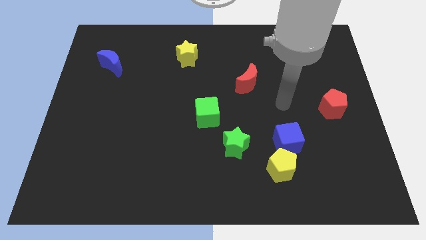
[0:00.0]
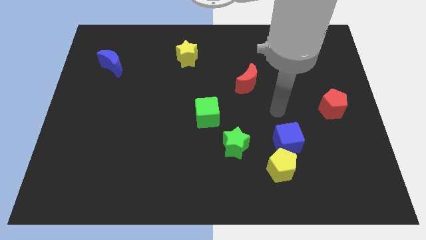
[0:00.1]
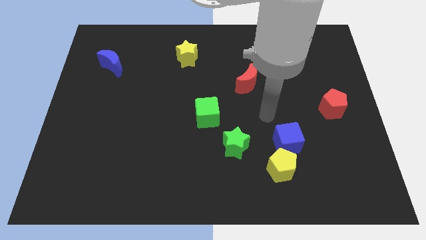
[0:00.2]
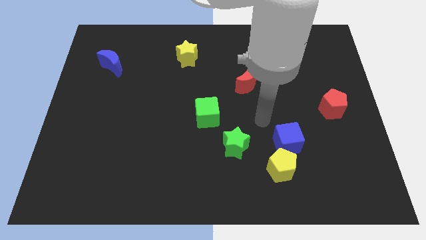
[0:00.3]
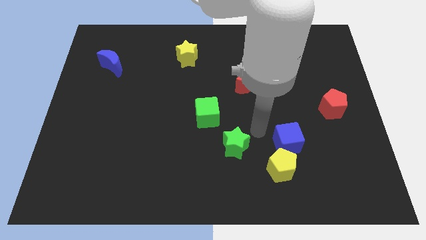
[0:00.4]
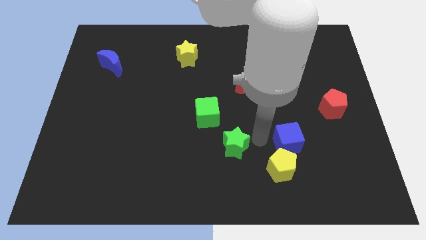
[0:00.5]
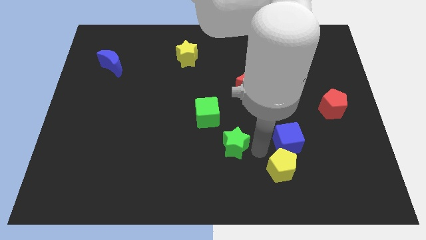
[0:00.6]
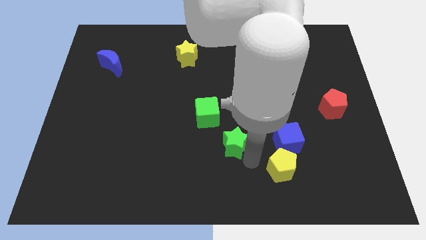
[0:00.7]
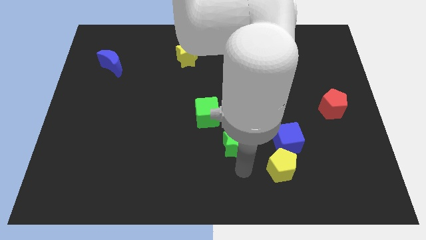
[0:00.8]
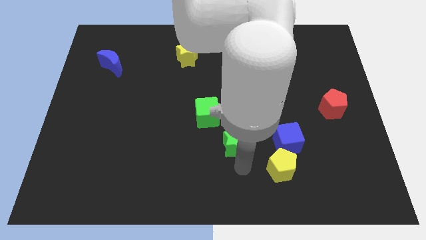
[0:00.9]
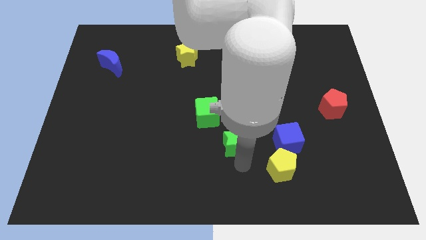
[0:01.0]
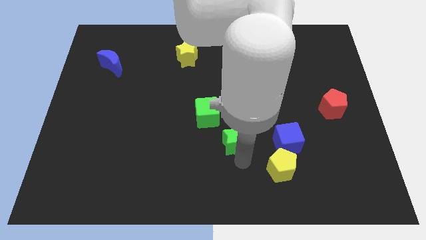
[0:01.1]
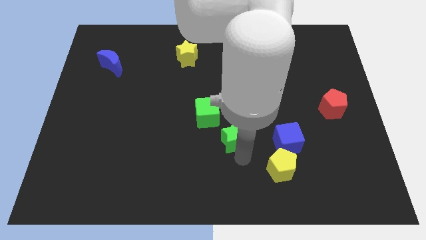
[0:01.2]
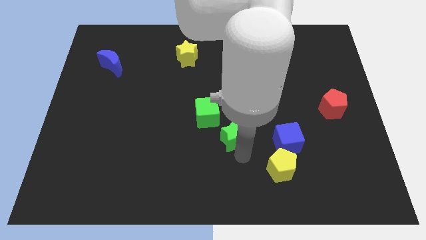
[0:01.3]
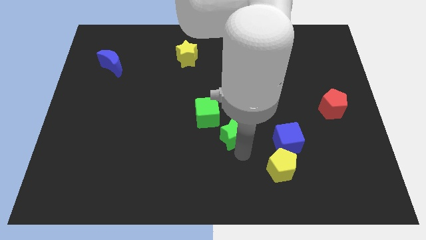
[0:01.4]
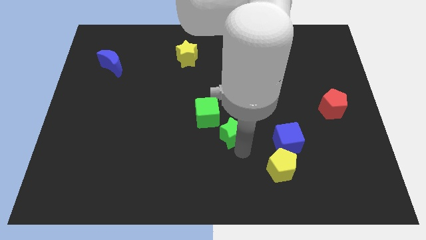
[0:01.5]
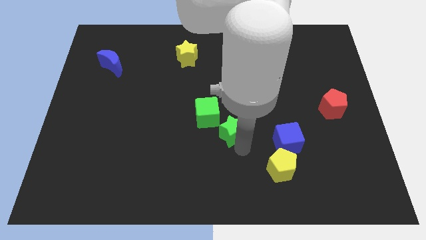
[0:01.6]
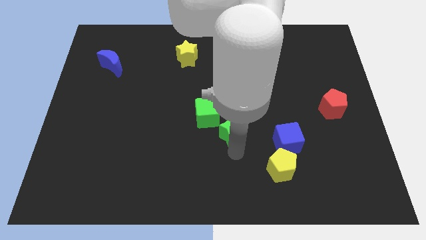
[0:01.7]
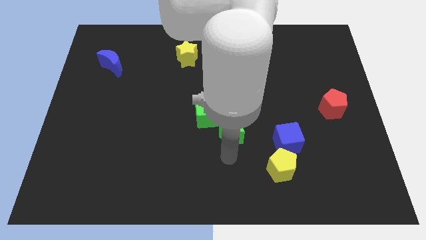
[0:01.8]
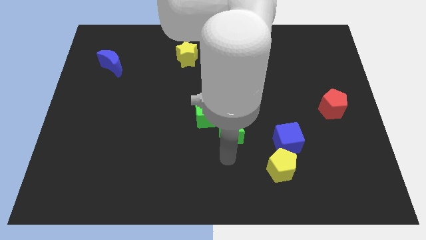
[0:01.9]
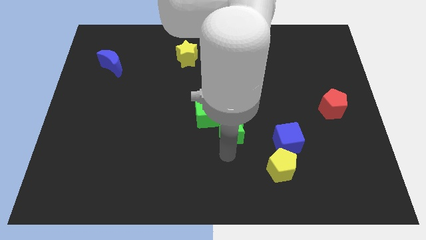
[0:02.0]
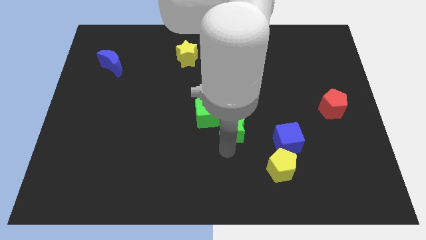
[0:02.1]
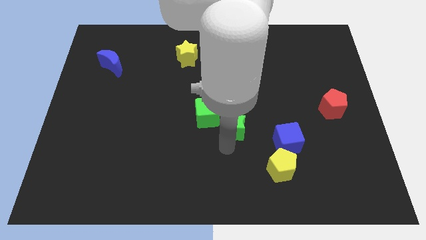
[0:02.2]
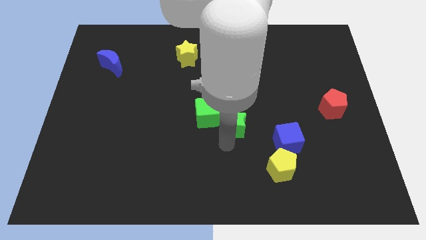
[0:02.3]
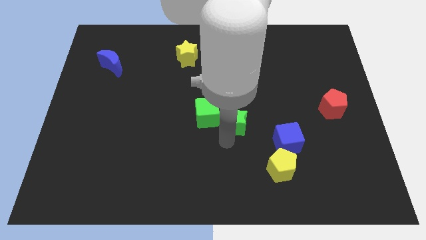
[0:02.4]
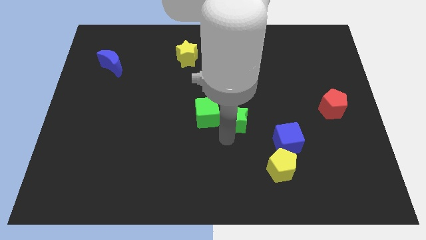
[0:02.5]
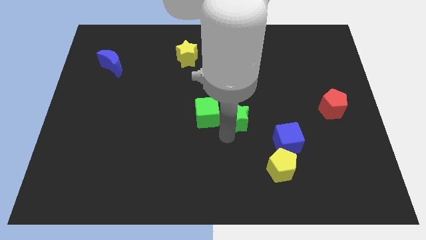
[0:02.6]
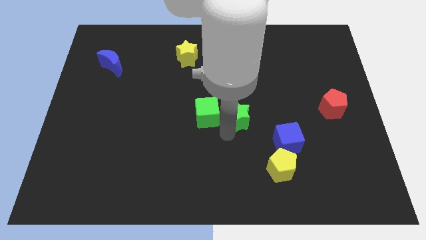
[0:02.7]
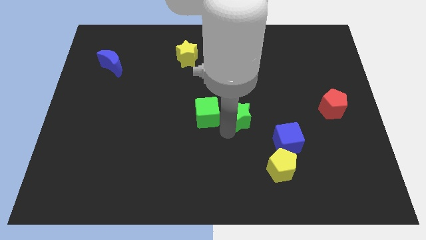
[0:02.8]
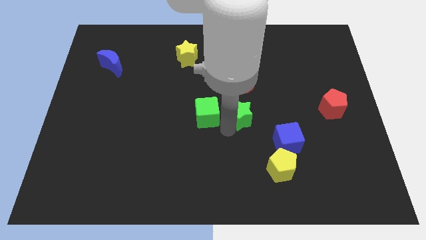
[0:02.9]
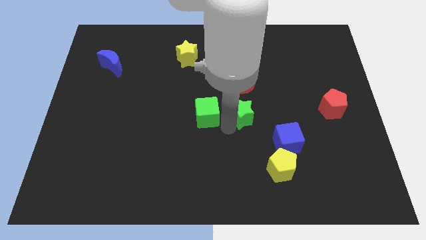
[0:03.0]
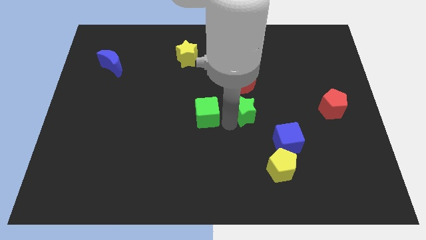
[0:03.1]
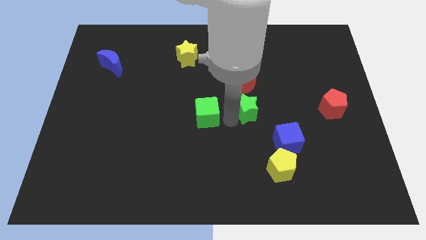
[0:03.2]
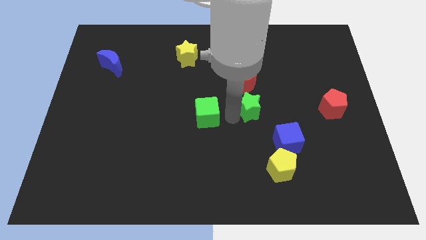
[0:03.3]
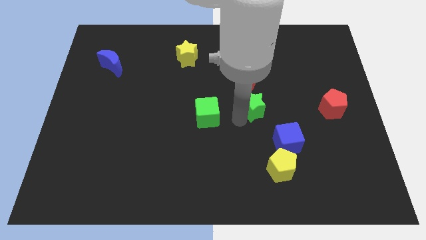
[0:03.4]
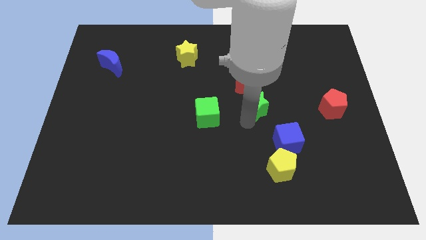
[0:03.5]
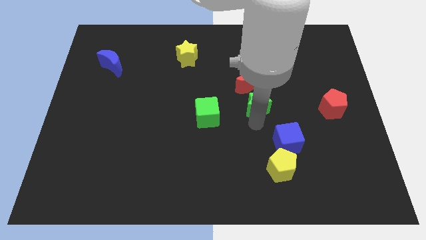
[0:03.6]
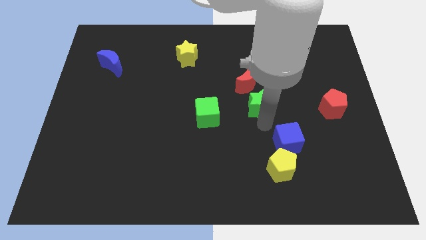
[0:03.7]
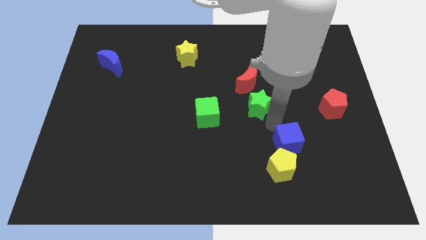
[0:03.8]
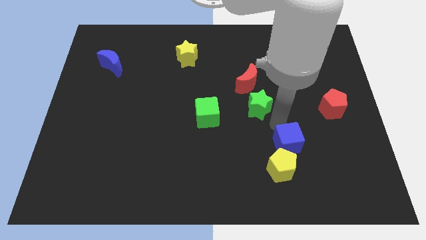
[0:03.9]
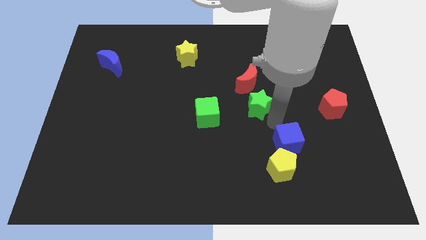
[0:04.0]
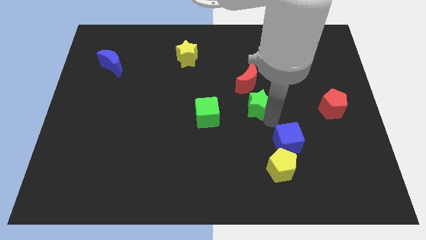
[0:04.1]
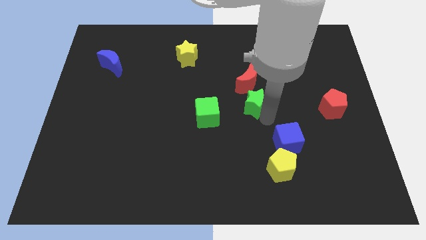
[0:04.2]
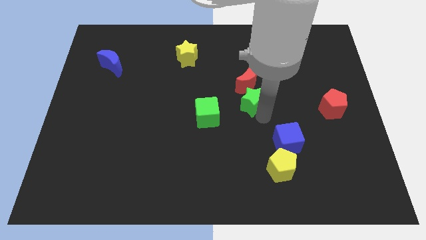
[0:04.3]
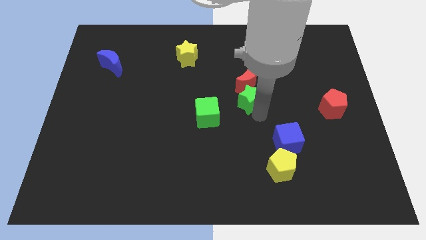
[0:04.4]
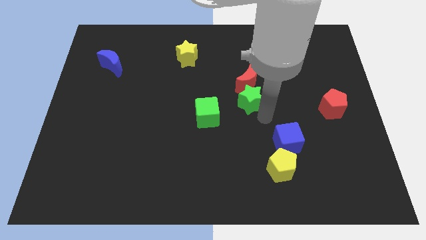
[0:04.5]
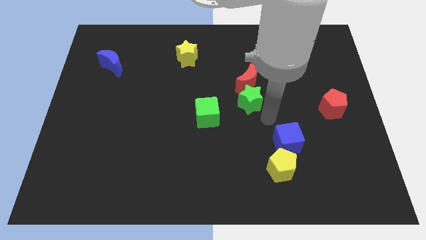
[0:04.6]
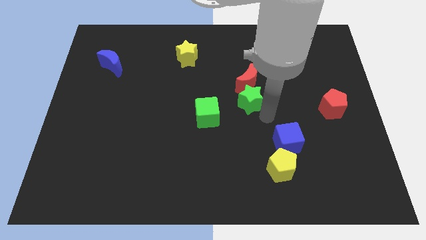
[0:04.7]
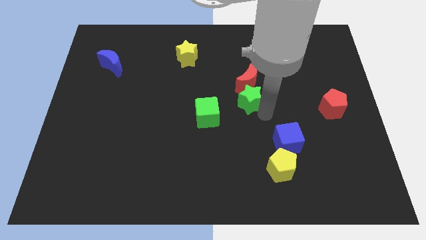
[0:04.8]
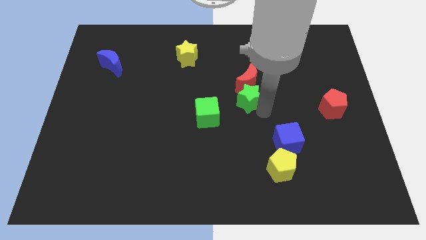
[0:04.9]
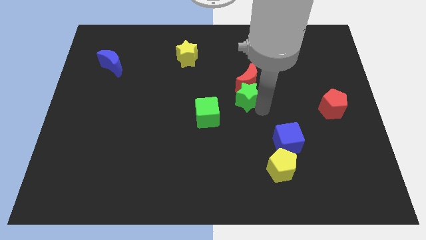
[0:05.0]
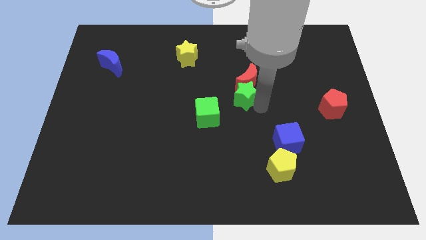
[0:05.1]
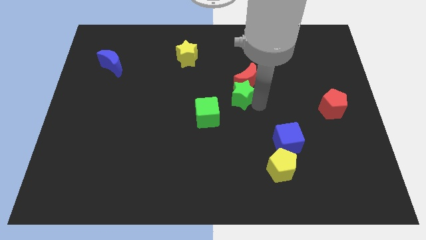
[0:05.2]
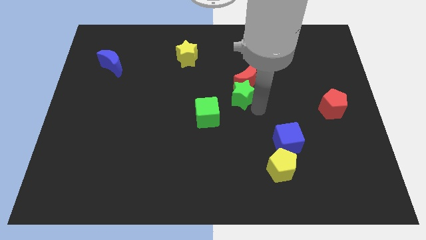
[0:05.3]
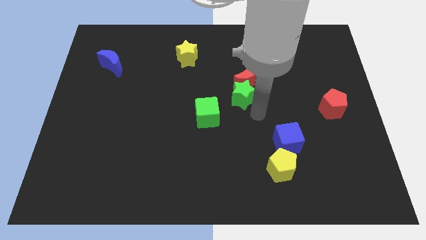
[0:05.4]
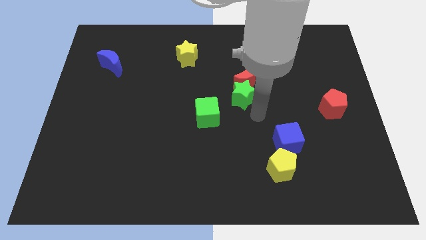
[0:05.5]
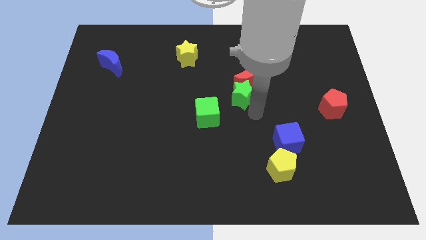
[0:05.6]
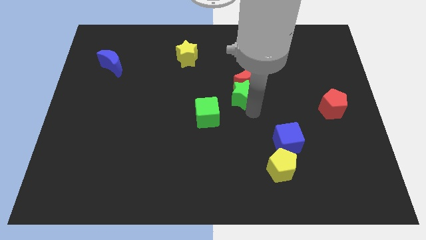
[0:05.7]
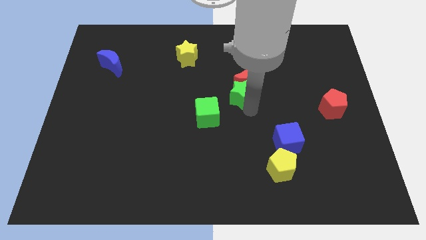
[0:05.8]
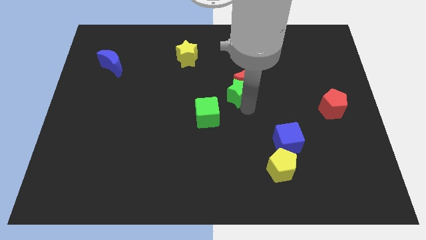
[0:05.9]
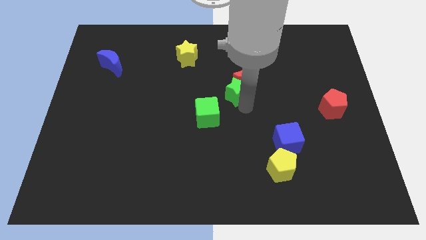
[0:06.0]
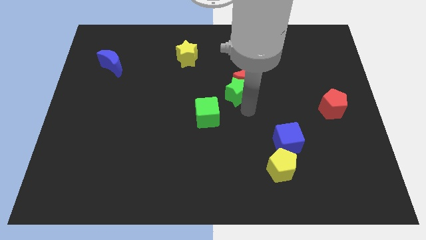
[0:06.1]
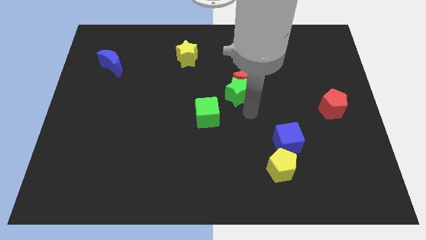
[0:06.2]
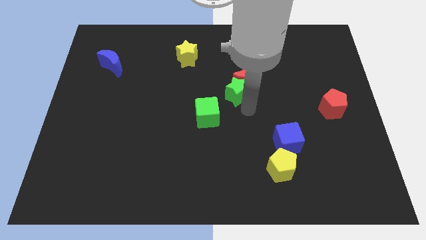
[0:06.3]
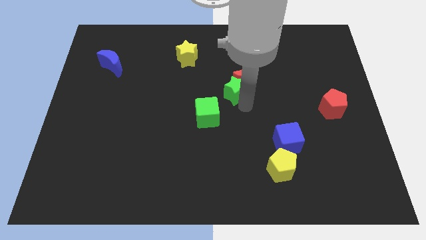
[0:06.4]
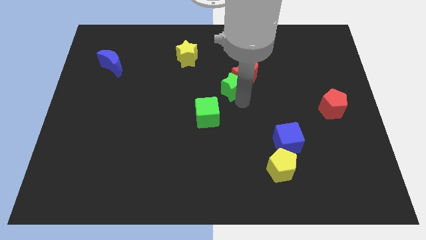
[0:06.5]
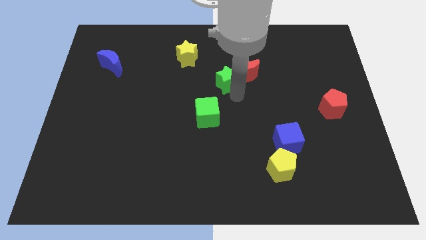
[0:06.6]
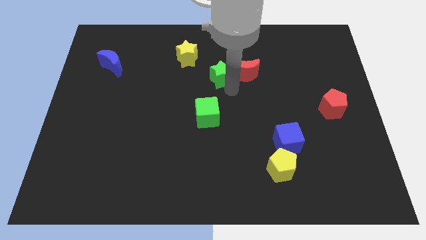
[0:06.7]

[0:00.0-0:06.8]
slide the green star to the top left side of the red moon

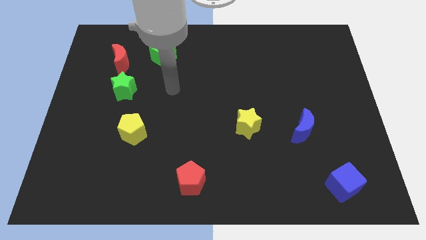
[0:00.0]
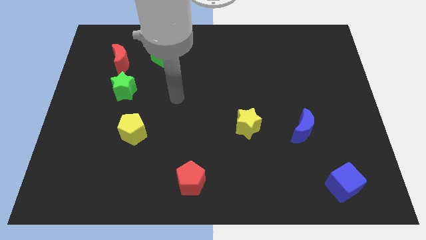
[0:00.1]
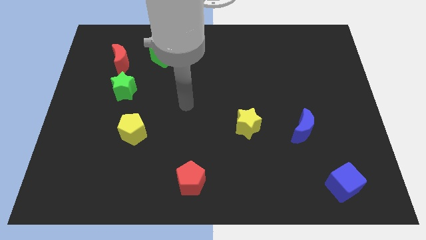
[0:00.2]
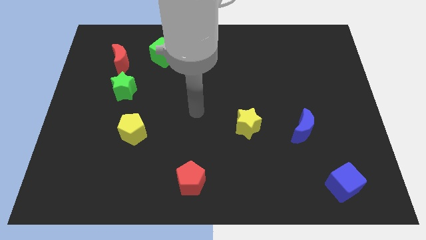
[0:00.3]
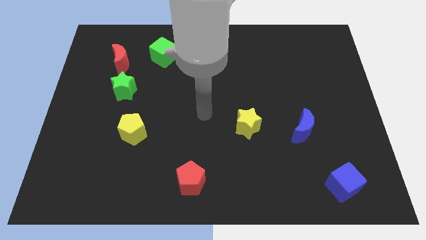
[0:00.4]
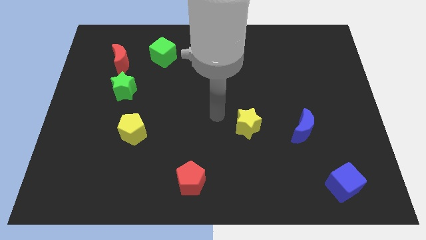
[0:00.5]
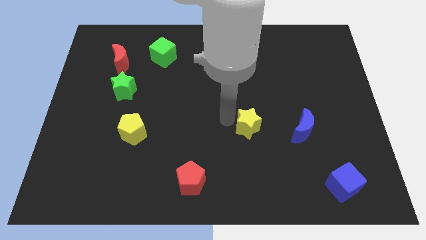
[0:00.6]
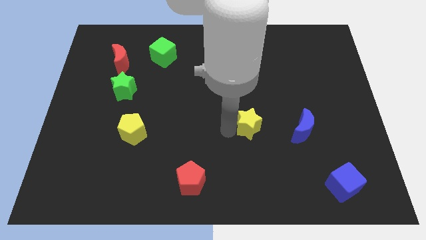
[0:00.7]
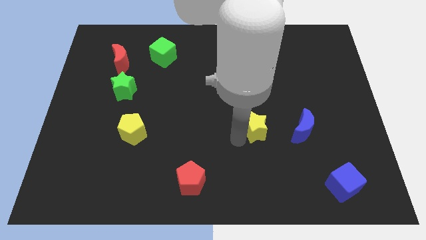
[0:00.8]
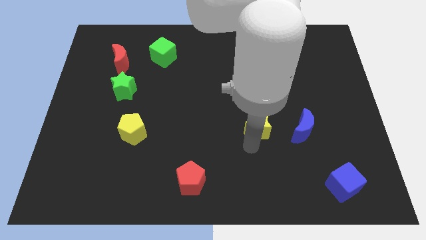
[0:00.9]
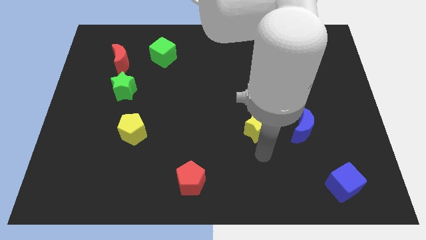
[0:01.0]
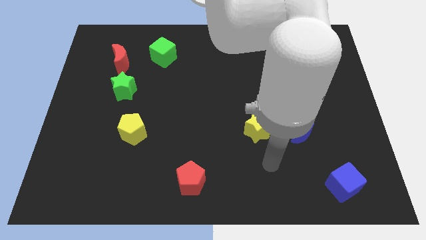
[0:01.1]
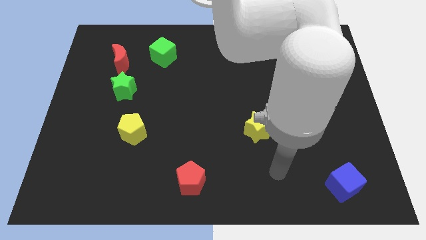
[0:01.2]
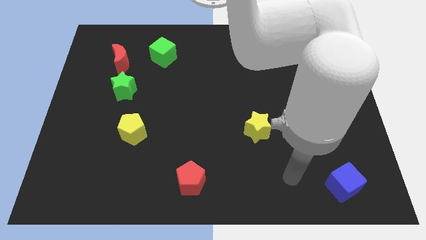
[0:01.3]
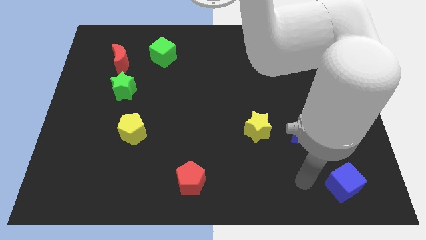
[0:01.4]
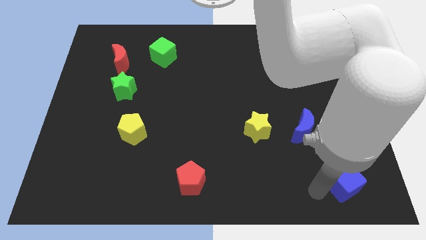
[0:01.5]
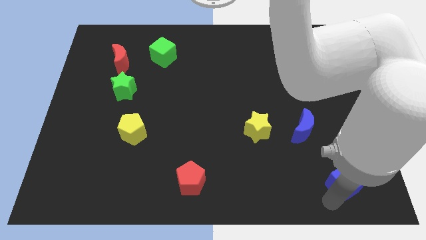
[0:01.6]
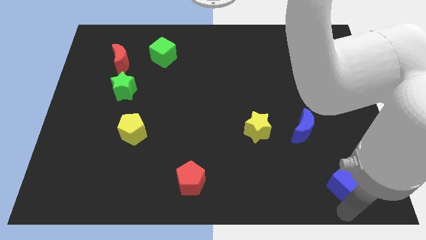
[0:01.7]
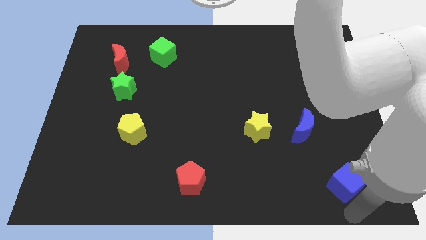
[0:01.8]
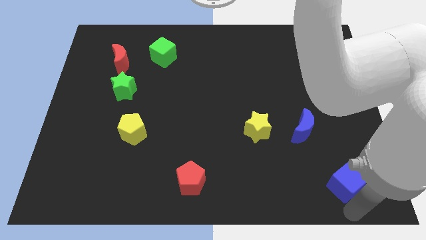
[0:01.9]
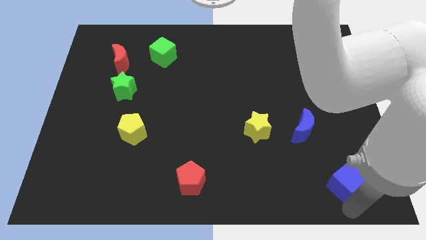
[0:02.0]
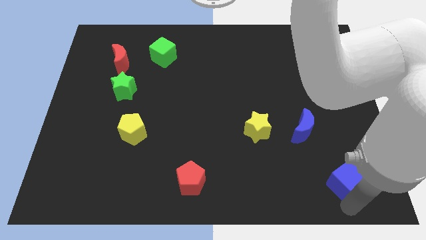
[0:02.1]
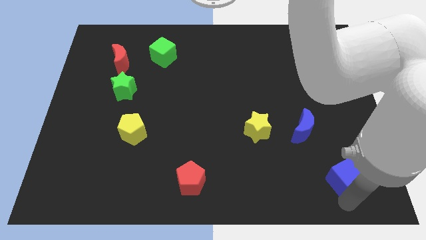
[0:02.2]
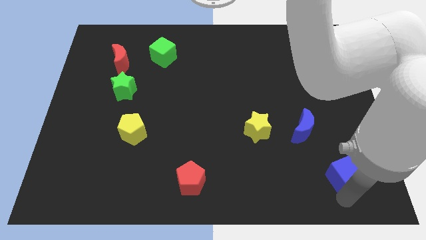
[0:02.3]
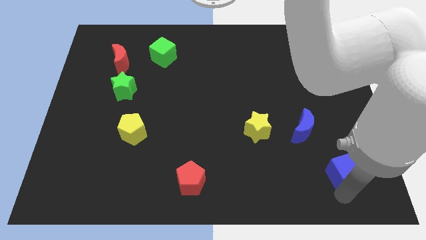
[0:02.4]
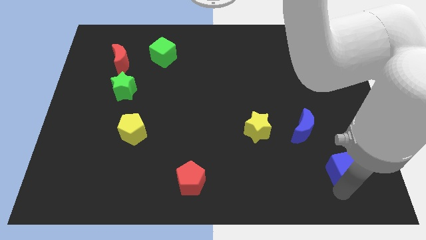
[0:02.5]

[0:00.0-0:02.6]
move the blue cube diagonally down and to the right of the blue moon
